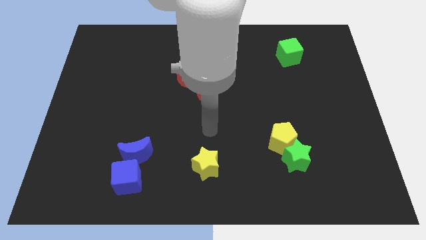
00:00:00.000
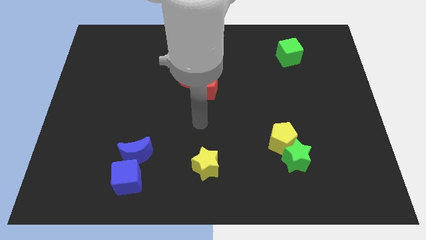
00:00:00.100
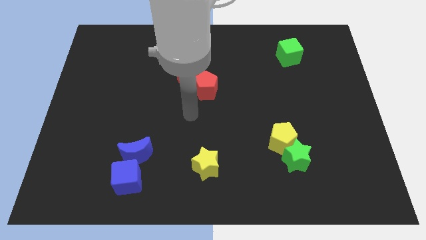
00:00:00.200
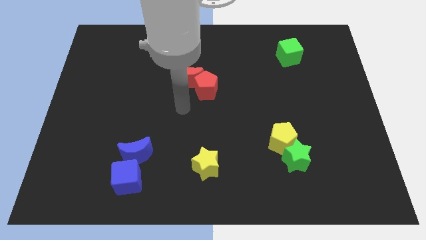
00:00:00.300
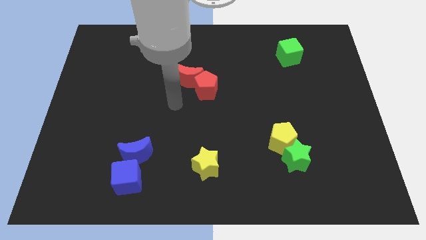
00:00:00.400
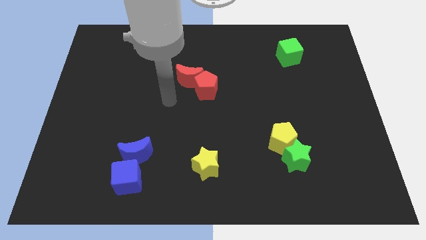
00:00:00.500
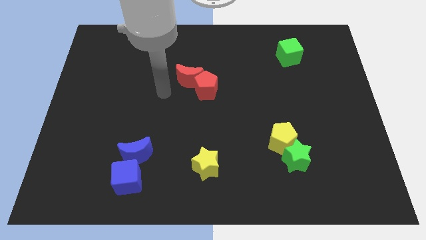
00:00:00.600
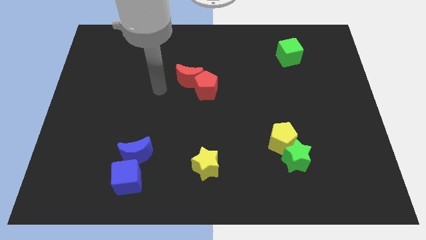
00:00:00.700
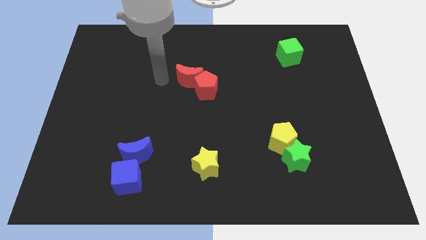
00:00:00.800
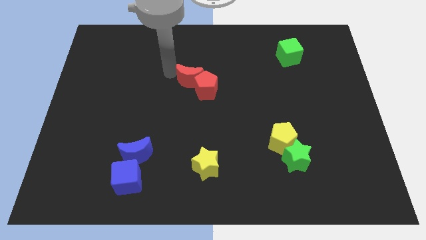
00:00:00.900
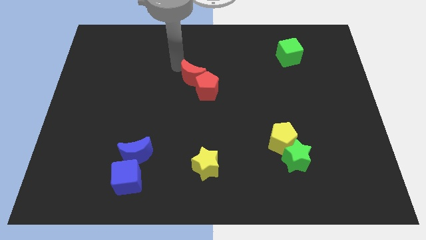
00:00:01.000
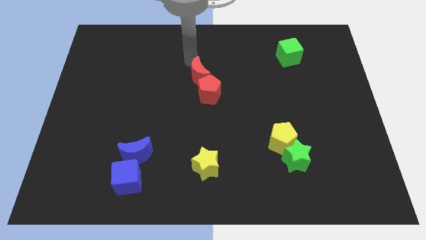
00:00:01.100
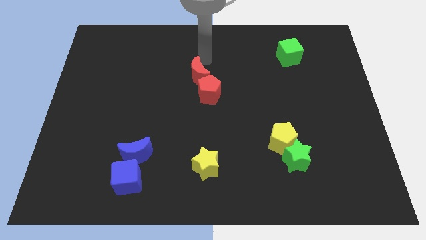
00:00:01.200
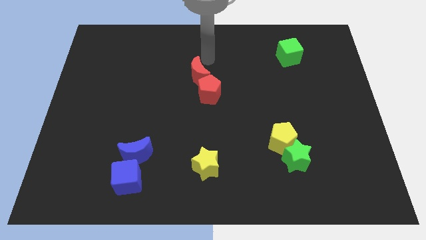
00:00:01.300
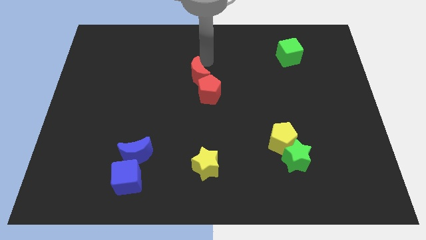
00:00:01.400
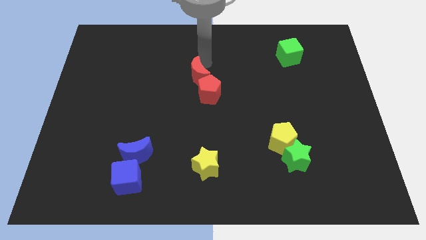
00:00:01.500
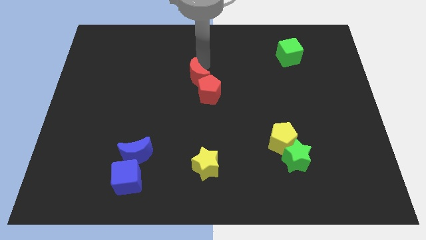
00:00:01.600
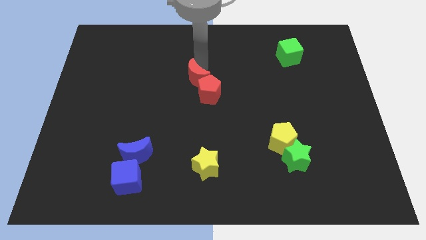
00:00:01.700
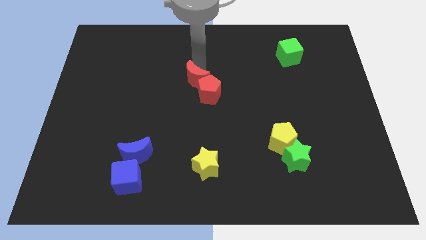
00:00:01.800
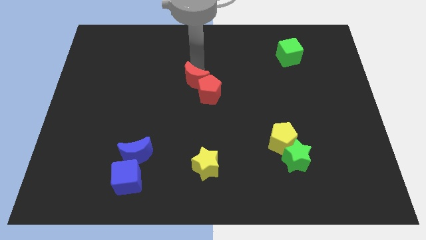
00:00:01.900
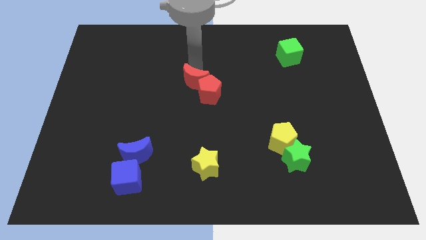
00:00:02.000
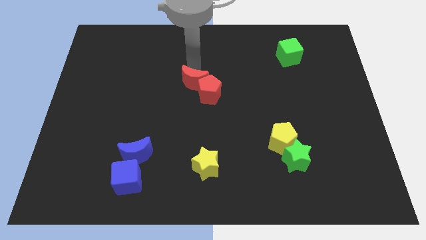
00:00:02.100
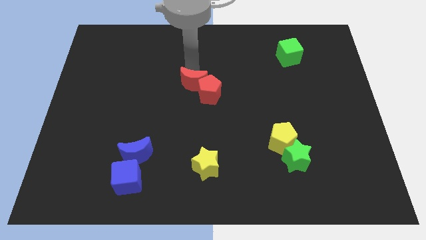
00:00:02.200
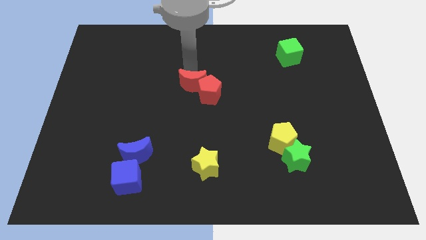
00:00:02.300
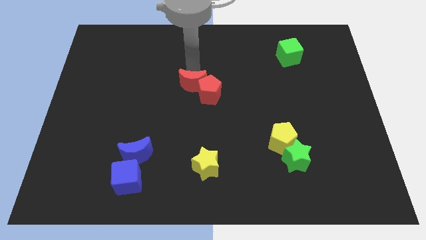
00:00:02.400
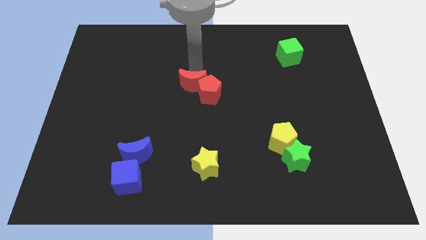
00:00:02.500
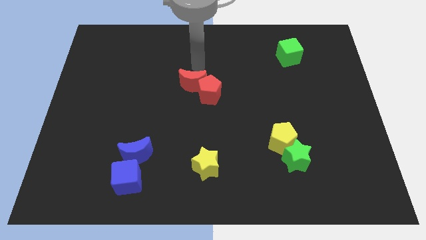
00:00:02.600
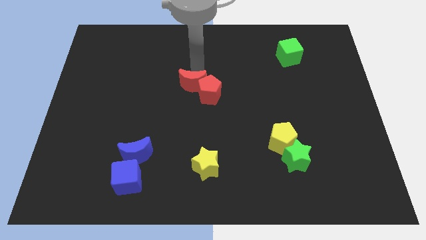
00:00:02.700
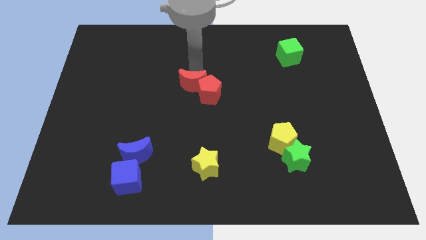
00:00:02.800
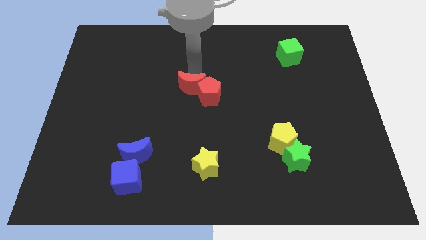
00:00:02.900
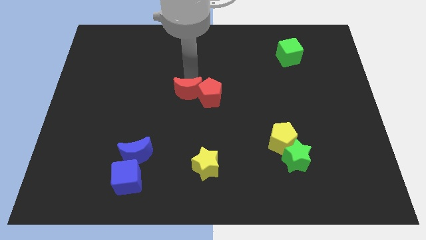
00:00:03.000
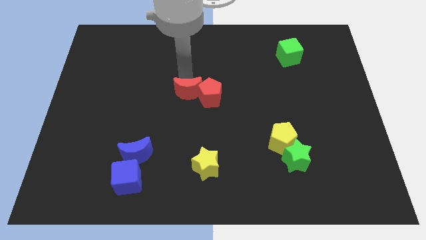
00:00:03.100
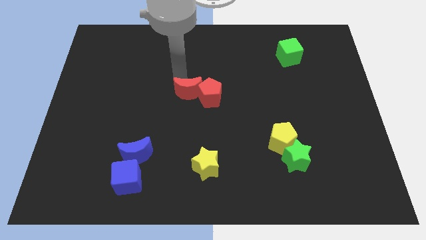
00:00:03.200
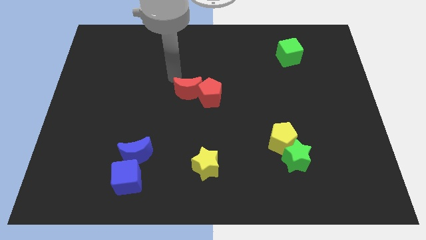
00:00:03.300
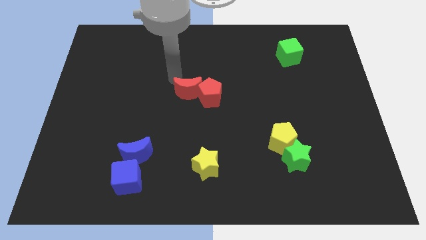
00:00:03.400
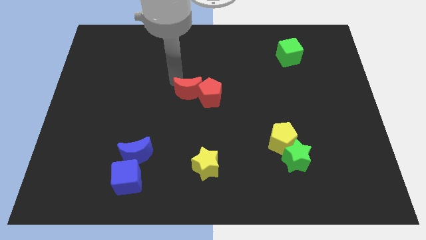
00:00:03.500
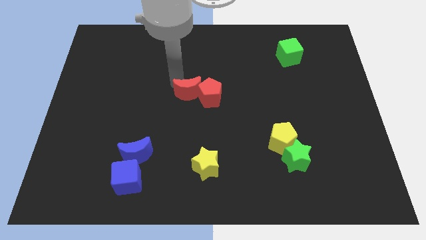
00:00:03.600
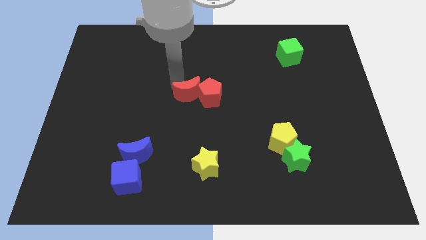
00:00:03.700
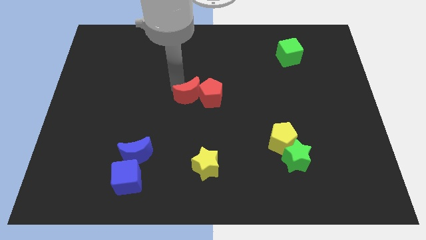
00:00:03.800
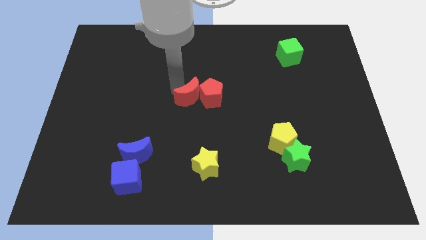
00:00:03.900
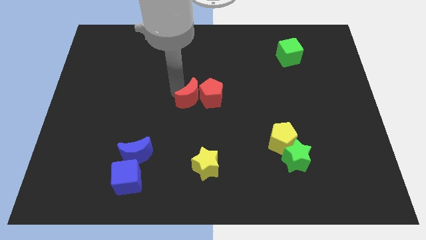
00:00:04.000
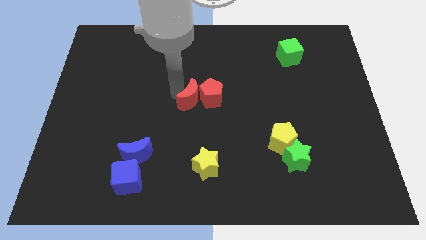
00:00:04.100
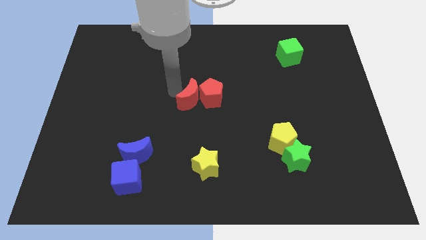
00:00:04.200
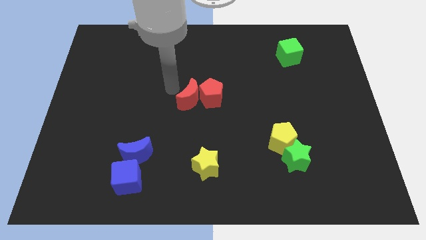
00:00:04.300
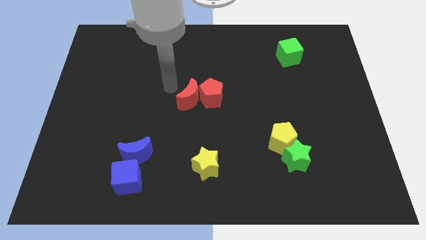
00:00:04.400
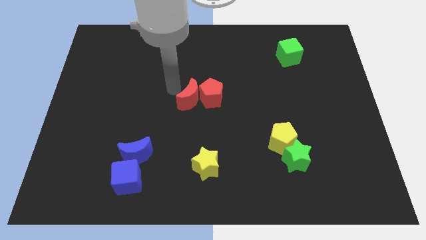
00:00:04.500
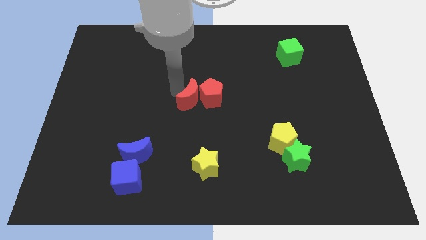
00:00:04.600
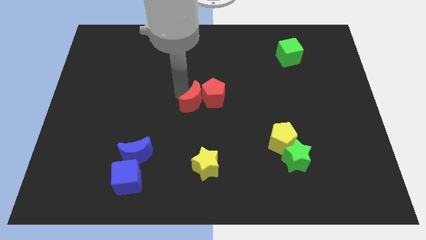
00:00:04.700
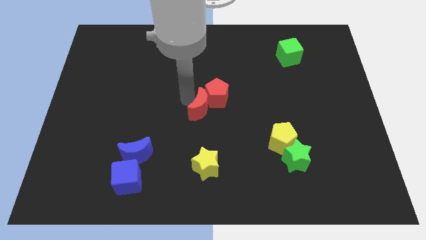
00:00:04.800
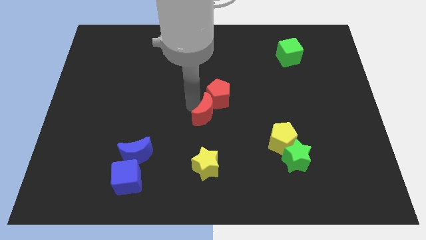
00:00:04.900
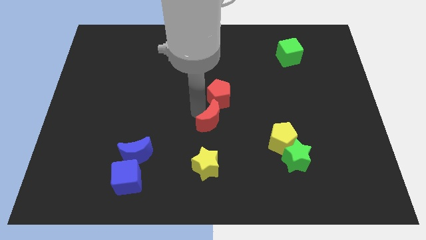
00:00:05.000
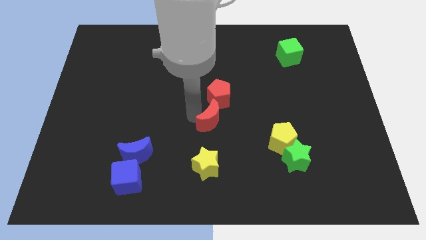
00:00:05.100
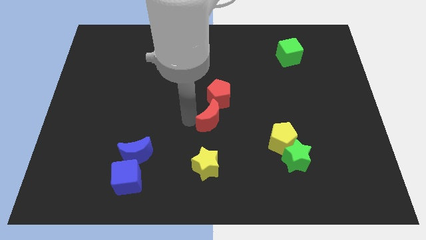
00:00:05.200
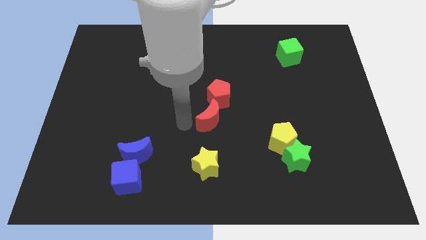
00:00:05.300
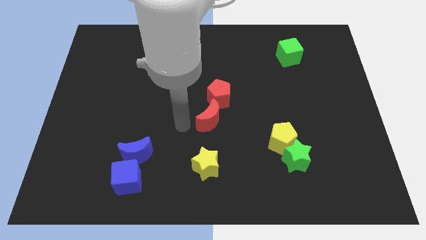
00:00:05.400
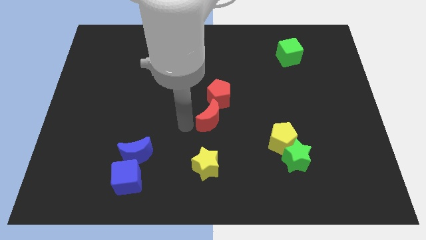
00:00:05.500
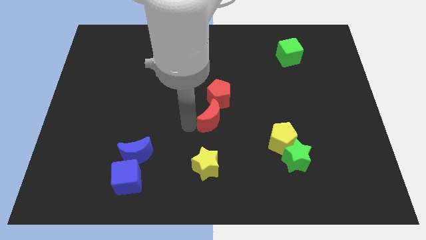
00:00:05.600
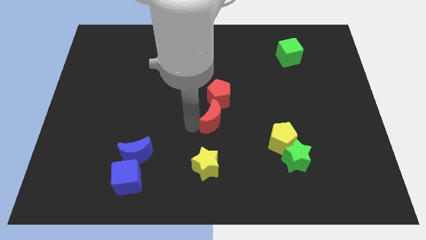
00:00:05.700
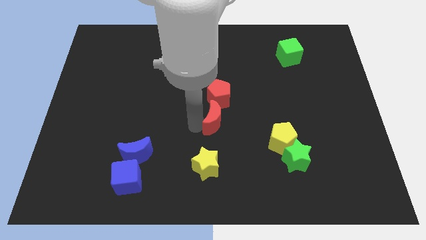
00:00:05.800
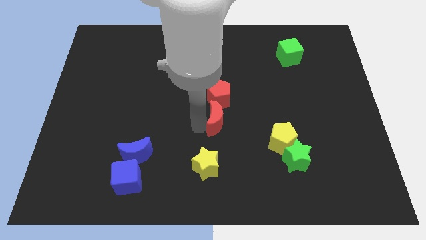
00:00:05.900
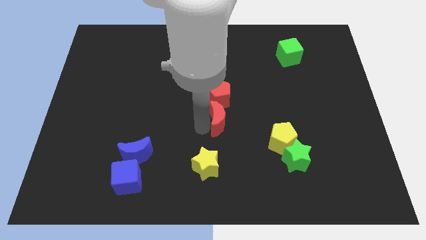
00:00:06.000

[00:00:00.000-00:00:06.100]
slide the red moon diagonally down and to the right of the red pentagon

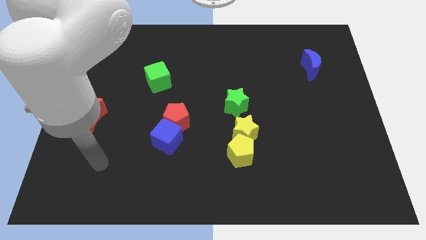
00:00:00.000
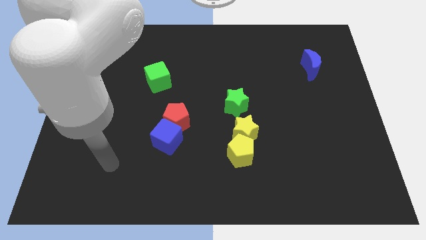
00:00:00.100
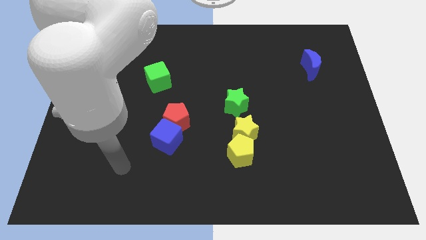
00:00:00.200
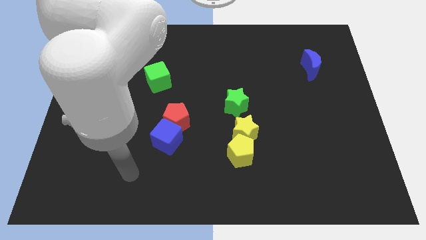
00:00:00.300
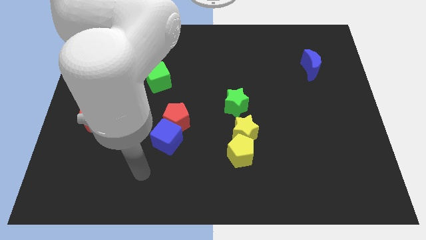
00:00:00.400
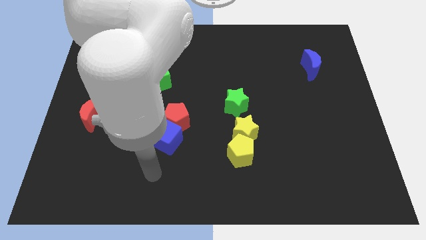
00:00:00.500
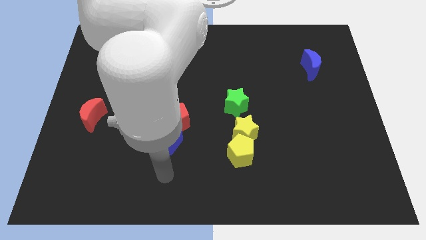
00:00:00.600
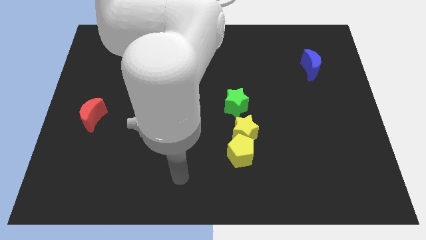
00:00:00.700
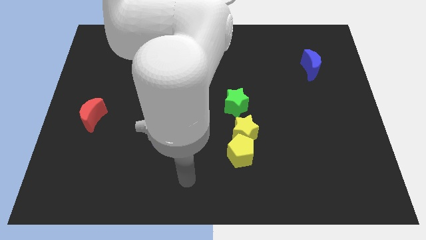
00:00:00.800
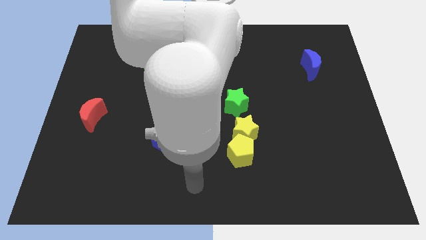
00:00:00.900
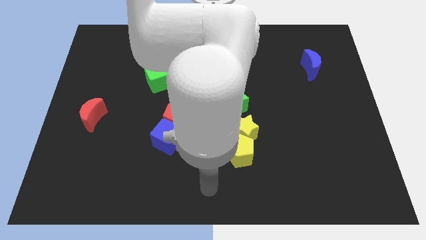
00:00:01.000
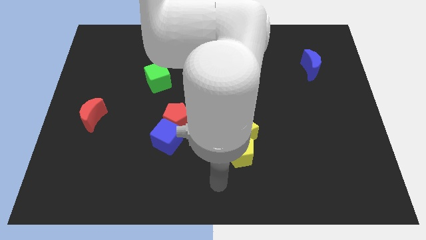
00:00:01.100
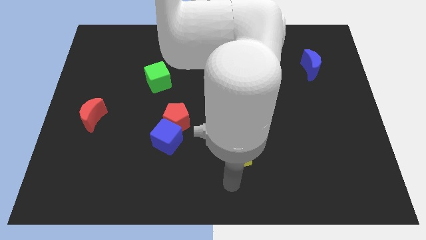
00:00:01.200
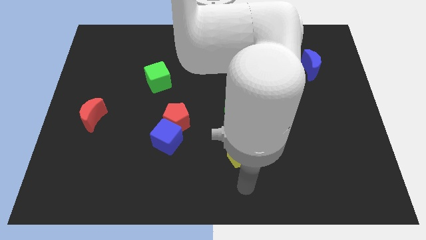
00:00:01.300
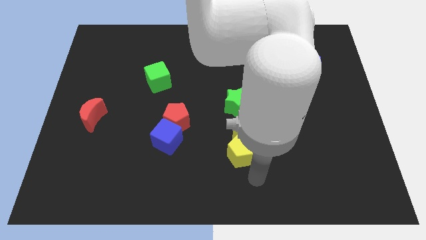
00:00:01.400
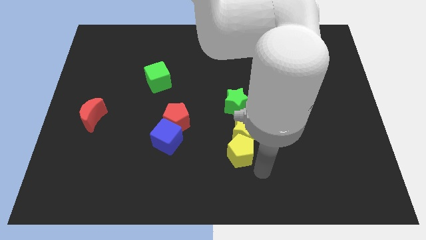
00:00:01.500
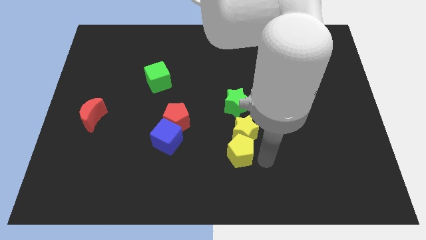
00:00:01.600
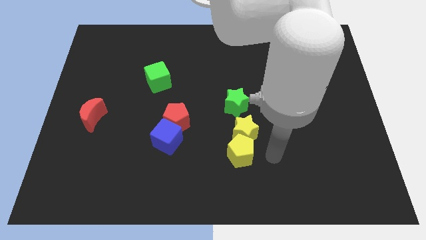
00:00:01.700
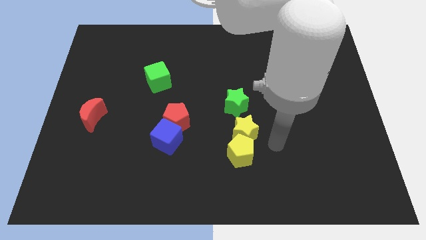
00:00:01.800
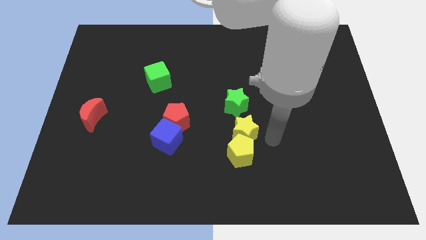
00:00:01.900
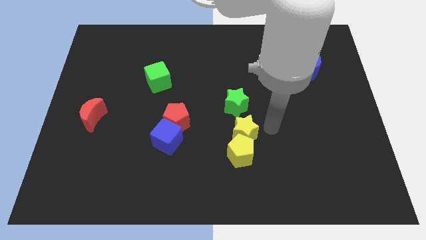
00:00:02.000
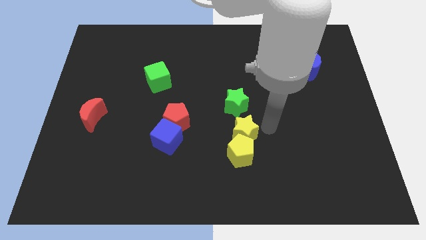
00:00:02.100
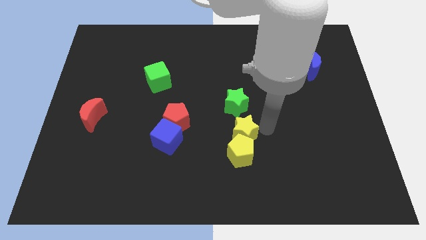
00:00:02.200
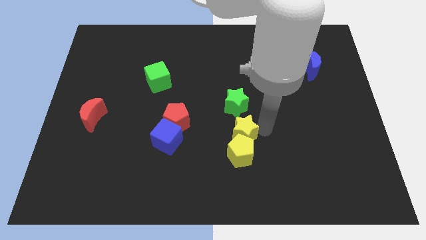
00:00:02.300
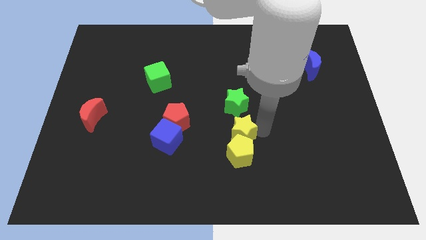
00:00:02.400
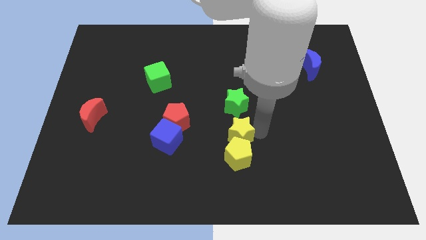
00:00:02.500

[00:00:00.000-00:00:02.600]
move the yellow star to the right side of the blue cube
